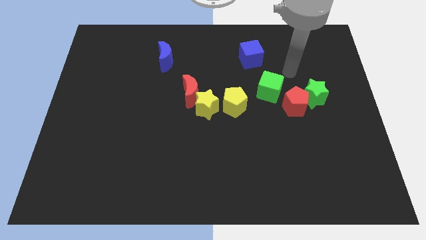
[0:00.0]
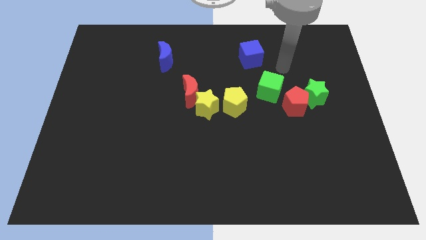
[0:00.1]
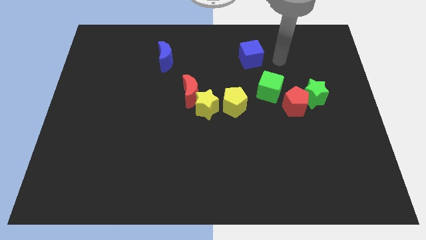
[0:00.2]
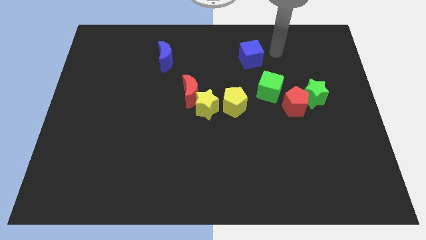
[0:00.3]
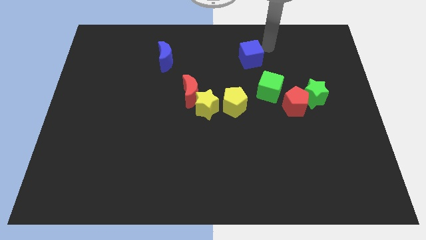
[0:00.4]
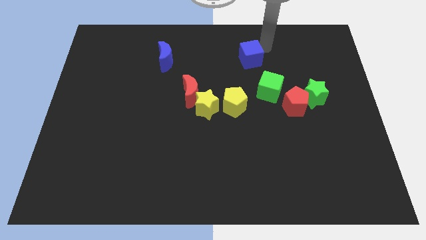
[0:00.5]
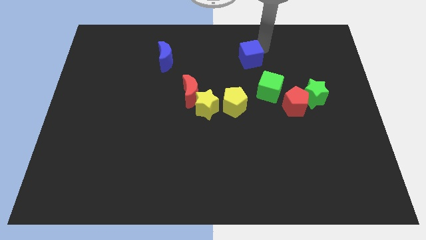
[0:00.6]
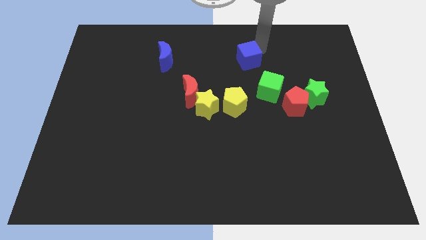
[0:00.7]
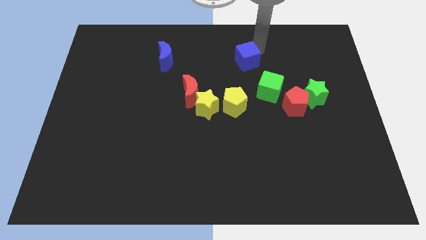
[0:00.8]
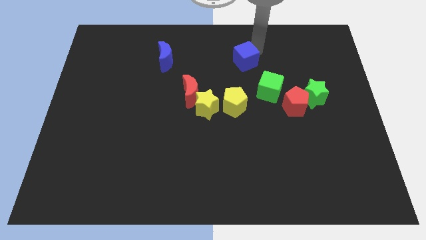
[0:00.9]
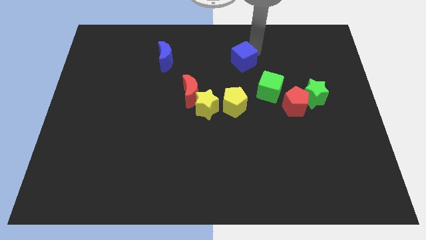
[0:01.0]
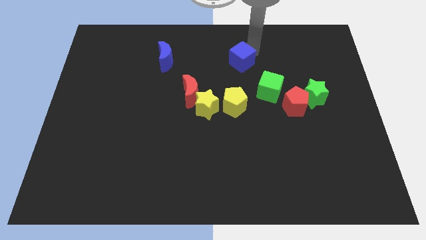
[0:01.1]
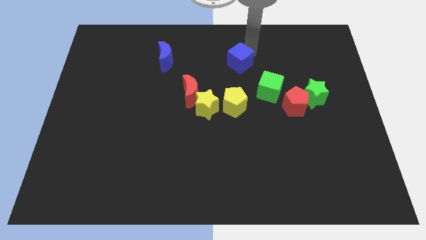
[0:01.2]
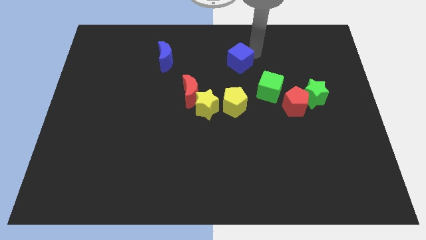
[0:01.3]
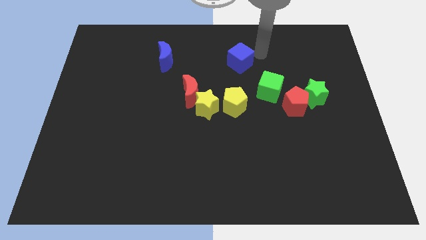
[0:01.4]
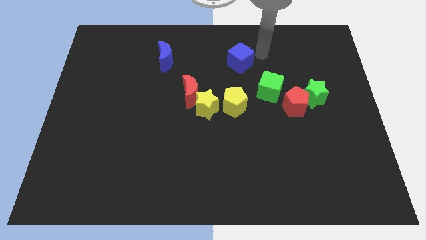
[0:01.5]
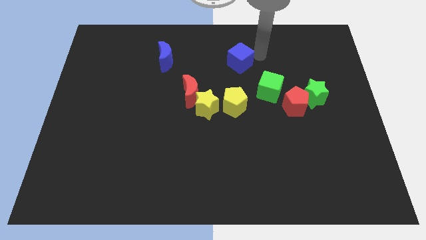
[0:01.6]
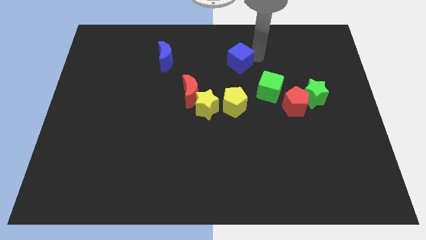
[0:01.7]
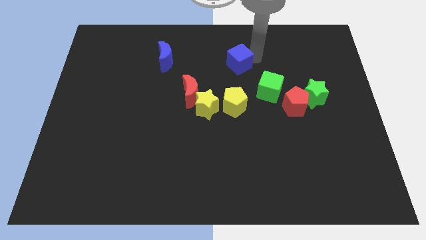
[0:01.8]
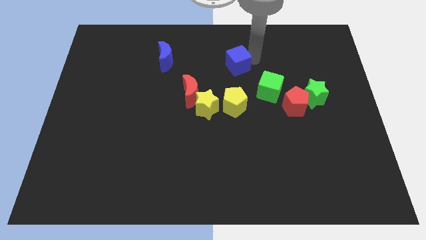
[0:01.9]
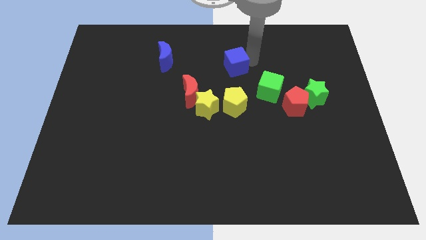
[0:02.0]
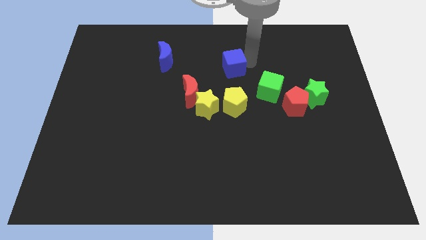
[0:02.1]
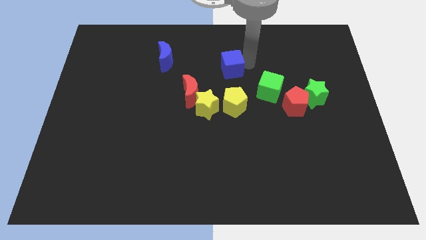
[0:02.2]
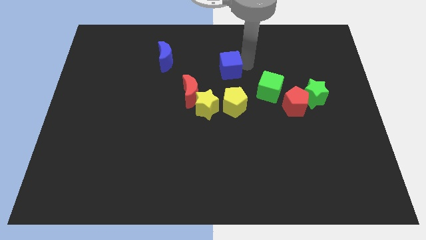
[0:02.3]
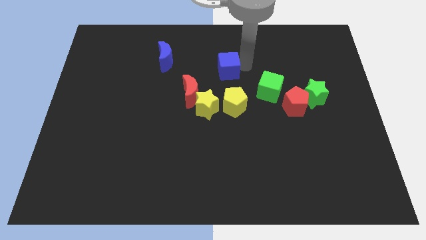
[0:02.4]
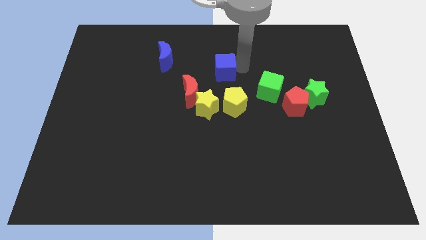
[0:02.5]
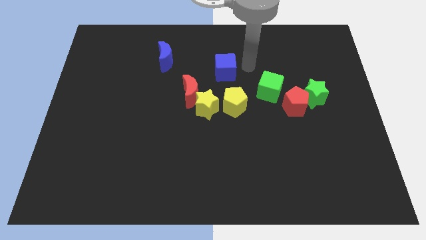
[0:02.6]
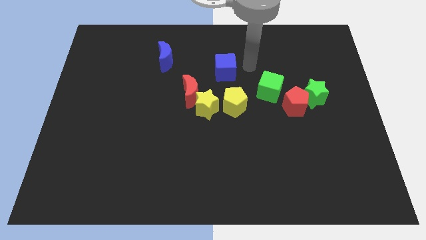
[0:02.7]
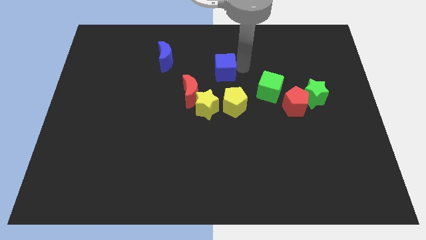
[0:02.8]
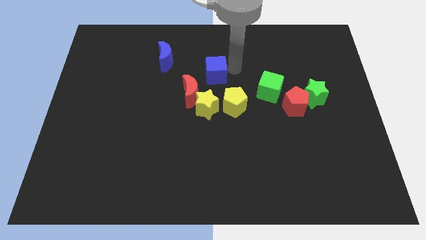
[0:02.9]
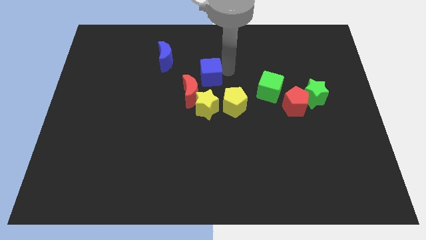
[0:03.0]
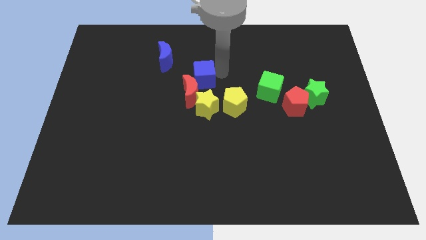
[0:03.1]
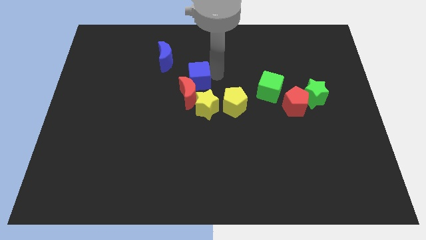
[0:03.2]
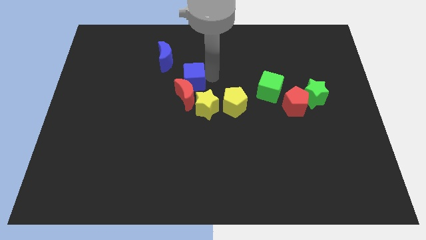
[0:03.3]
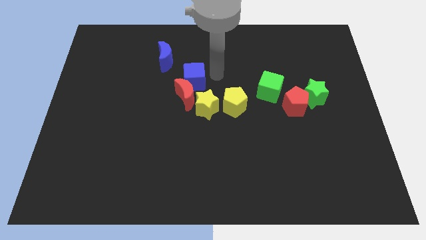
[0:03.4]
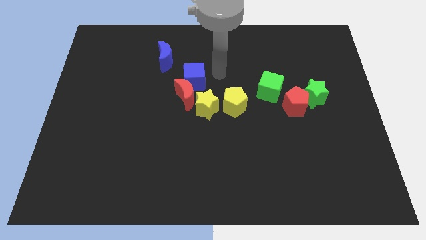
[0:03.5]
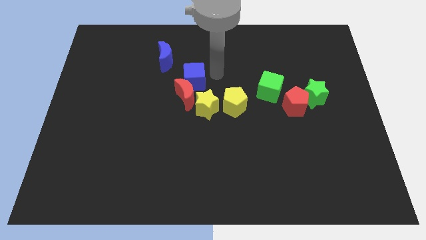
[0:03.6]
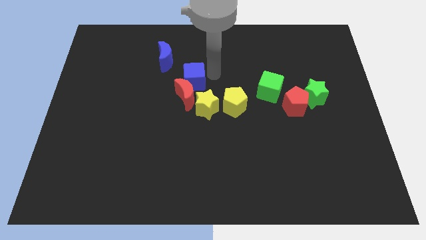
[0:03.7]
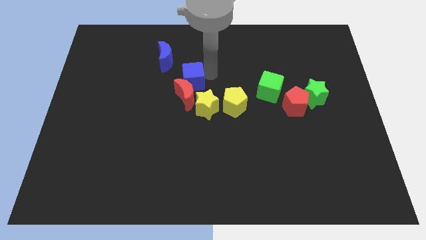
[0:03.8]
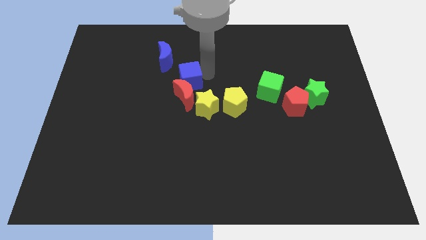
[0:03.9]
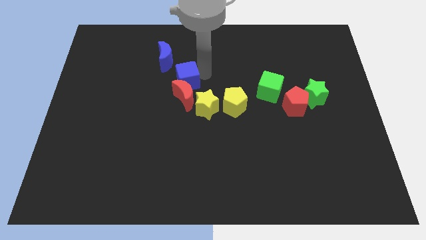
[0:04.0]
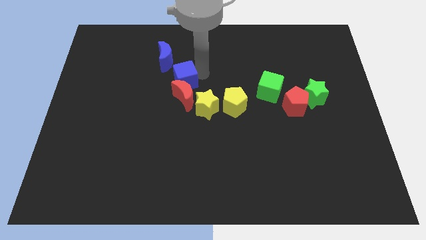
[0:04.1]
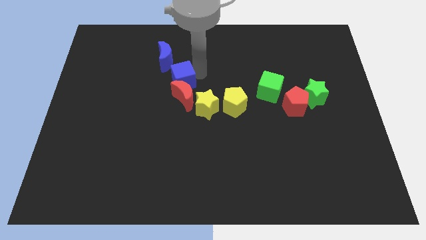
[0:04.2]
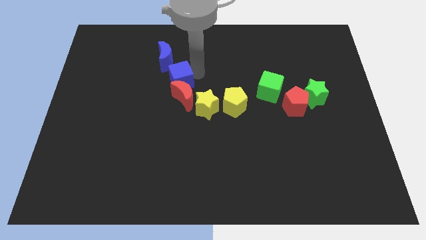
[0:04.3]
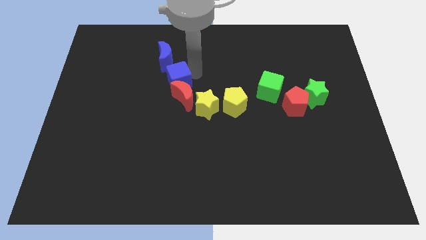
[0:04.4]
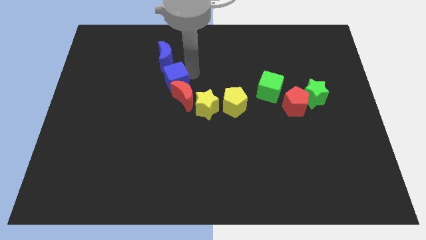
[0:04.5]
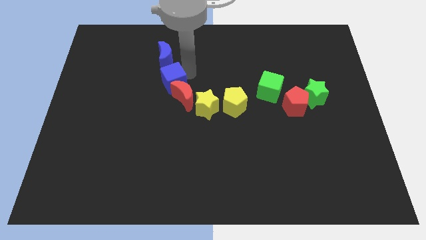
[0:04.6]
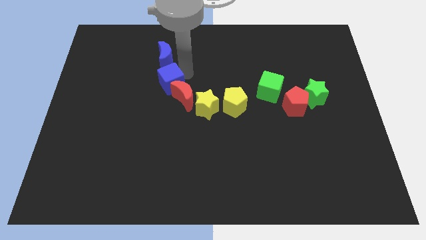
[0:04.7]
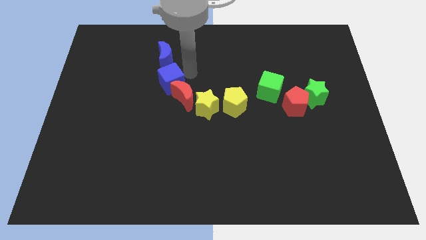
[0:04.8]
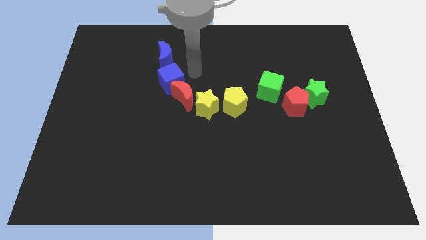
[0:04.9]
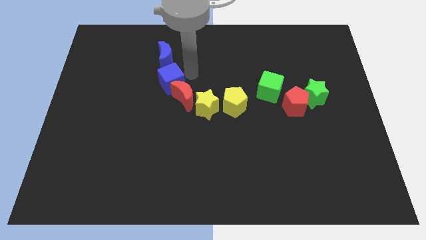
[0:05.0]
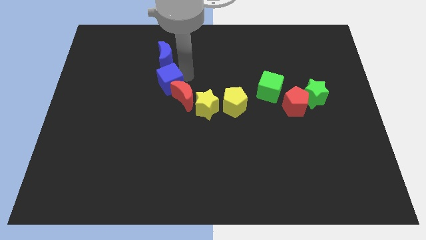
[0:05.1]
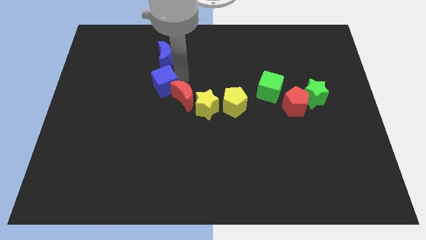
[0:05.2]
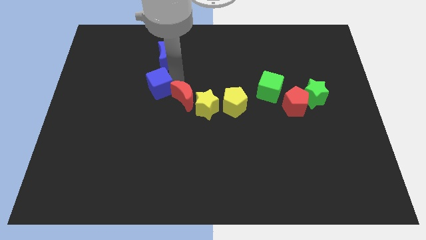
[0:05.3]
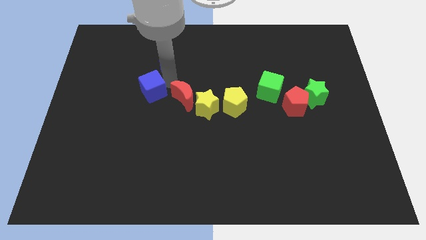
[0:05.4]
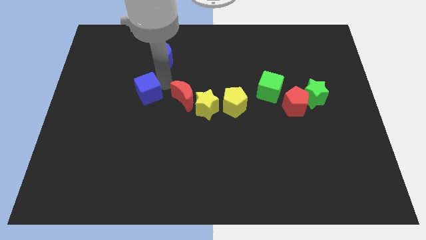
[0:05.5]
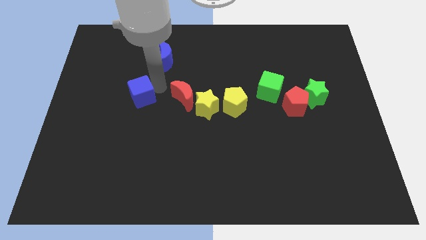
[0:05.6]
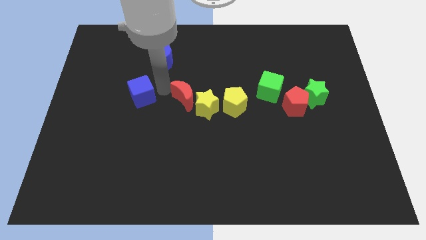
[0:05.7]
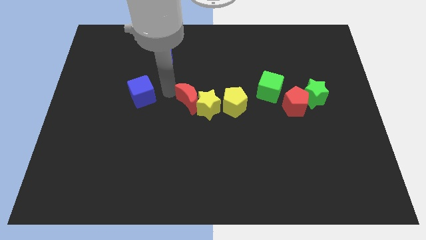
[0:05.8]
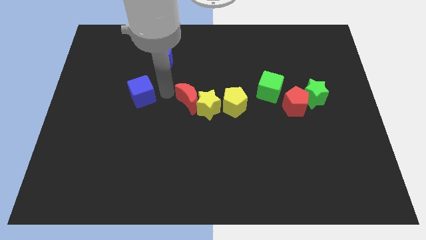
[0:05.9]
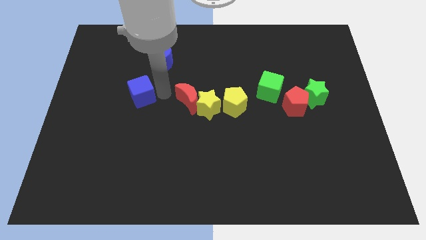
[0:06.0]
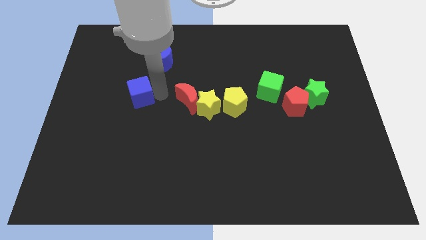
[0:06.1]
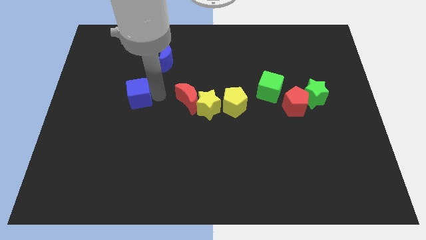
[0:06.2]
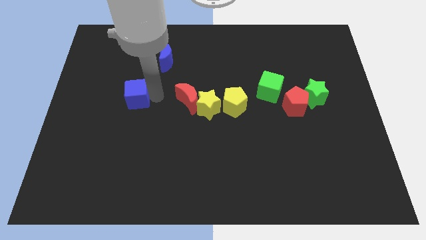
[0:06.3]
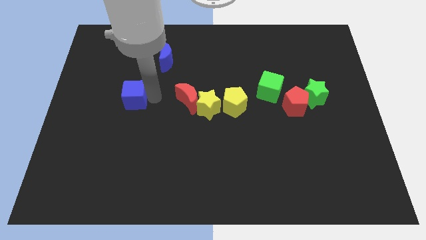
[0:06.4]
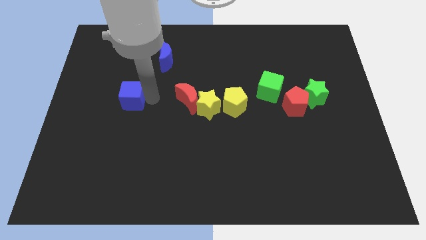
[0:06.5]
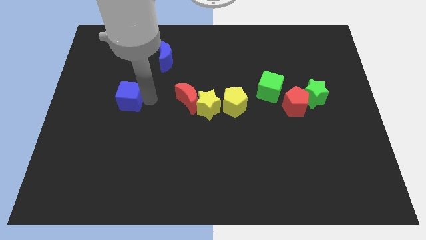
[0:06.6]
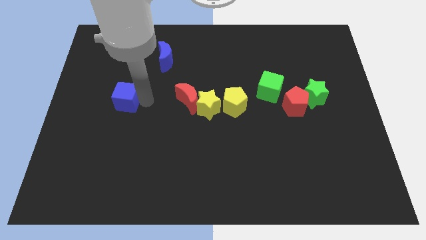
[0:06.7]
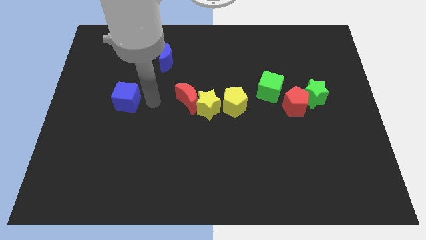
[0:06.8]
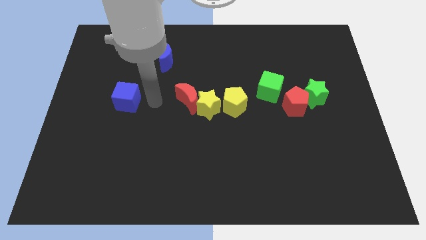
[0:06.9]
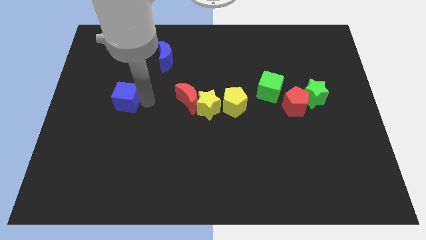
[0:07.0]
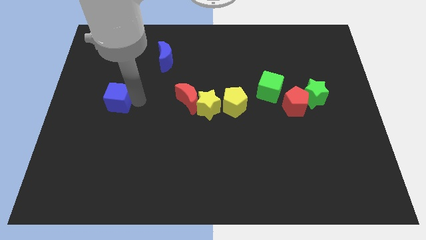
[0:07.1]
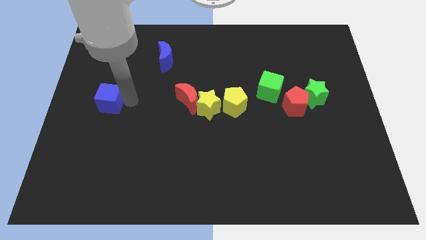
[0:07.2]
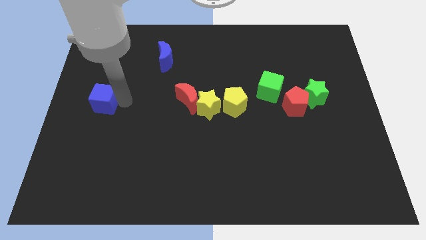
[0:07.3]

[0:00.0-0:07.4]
put the blue cube to the left side of the board
